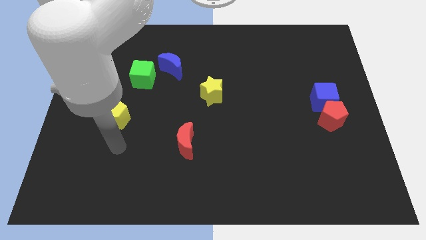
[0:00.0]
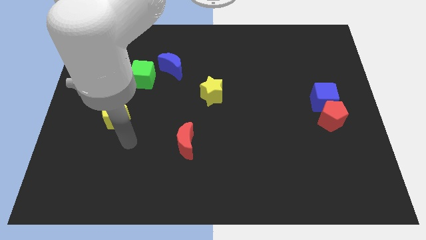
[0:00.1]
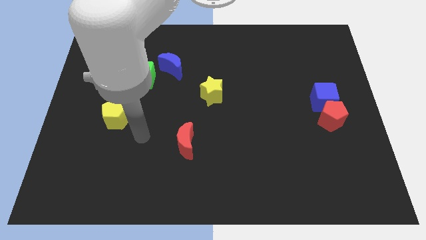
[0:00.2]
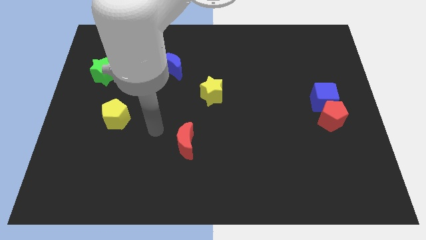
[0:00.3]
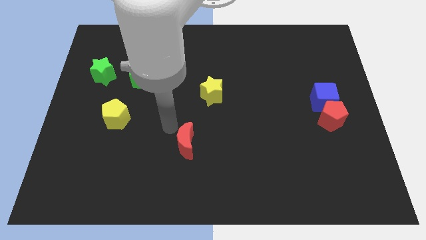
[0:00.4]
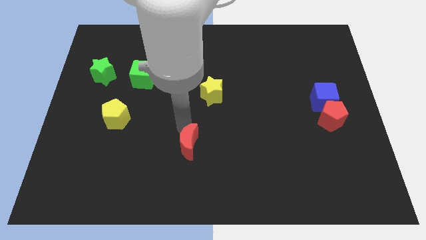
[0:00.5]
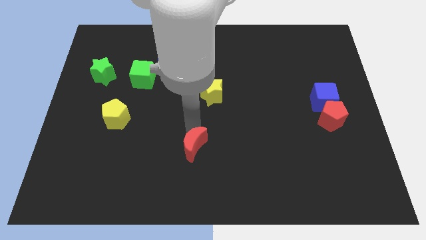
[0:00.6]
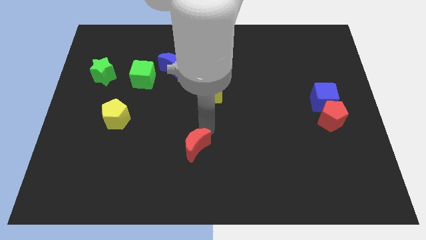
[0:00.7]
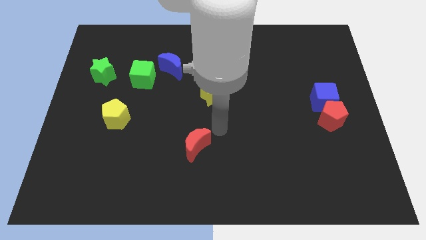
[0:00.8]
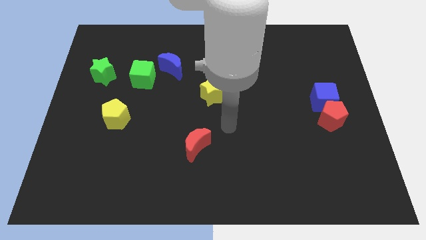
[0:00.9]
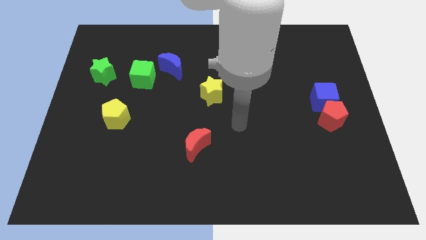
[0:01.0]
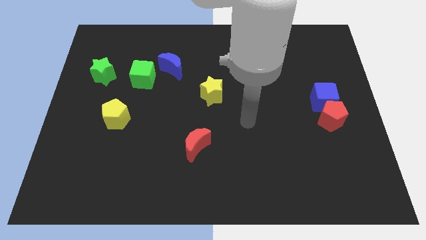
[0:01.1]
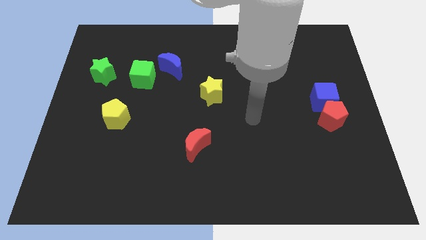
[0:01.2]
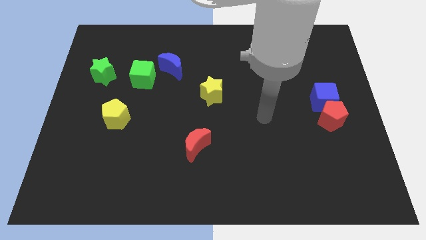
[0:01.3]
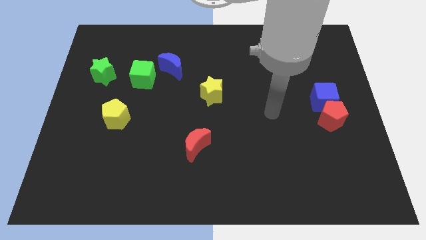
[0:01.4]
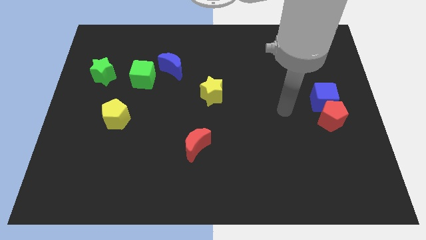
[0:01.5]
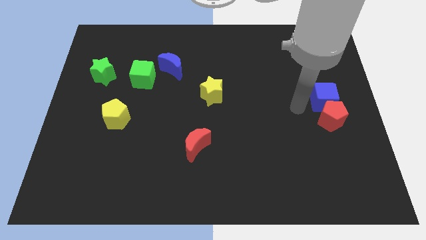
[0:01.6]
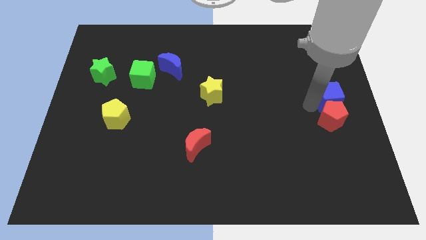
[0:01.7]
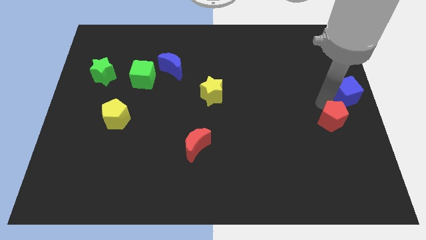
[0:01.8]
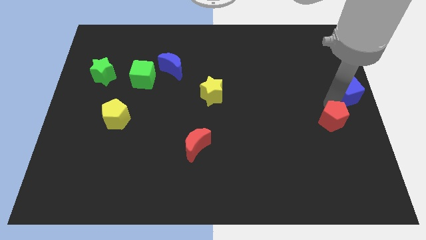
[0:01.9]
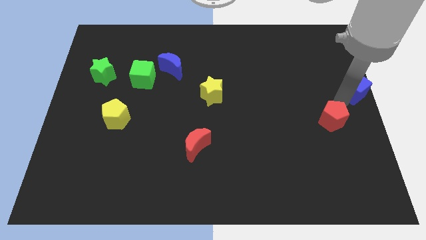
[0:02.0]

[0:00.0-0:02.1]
separate the red pentagon from the blue cube

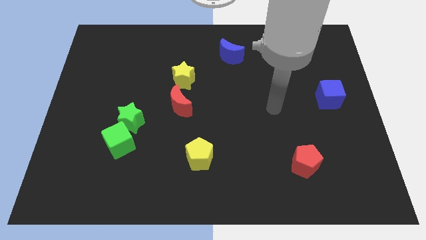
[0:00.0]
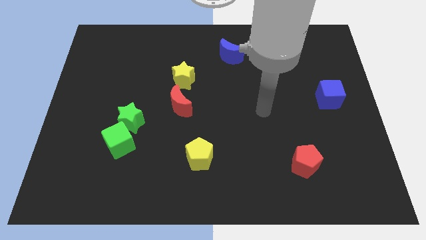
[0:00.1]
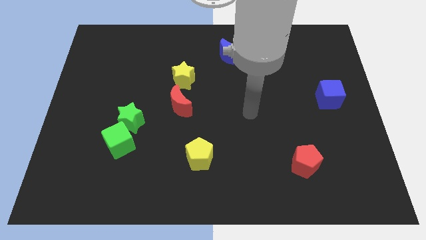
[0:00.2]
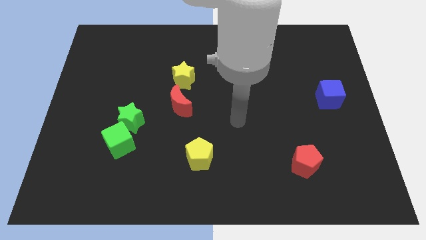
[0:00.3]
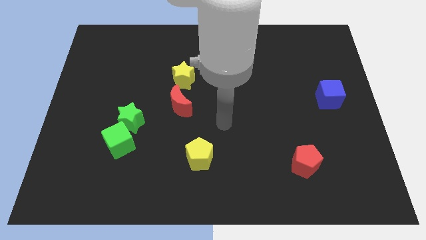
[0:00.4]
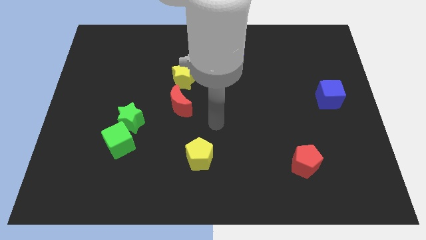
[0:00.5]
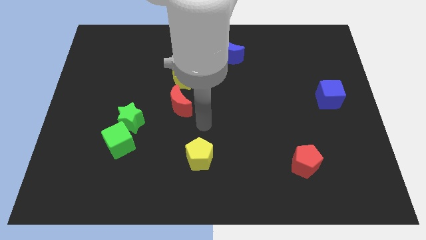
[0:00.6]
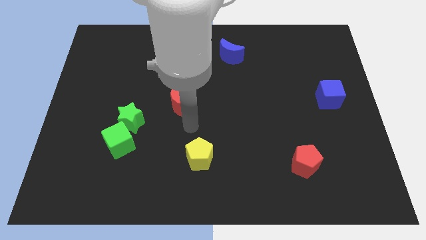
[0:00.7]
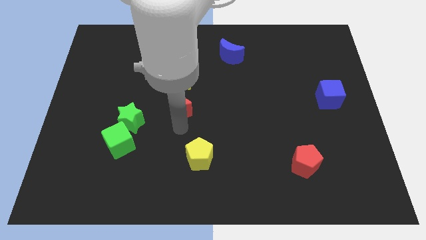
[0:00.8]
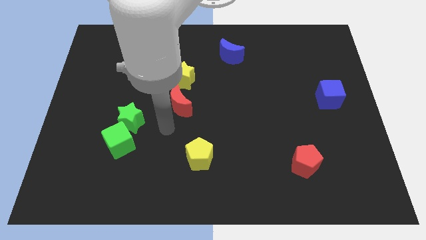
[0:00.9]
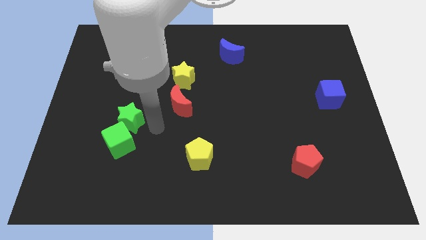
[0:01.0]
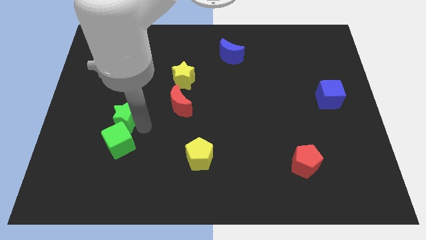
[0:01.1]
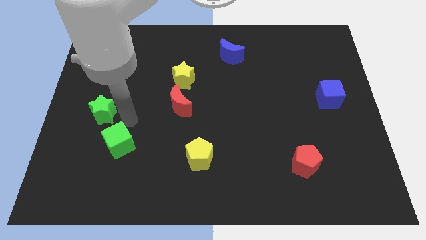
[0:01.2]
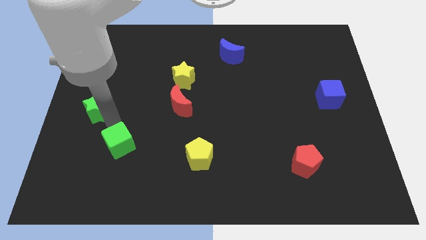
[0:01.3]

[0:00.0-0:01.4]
pull the green cube apart from the green star

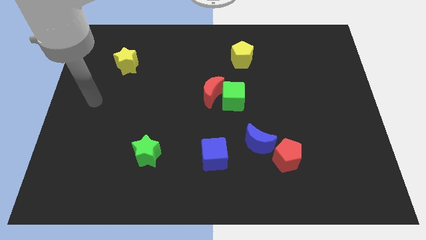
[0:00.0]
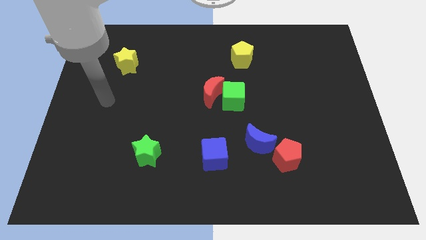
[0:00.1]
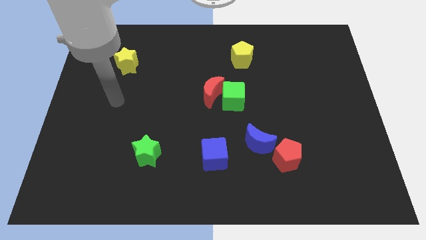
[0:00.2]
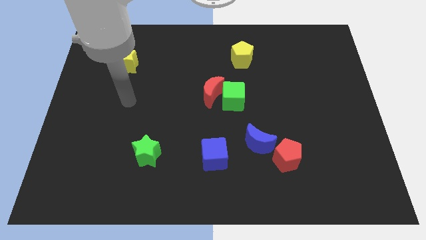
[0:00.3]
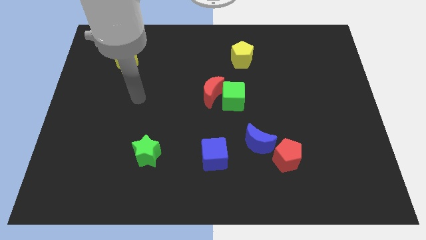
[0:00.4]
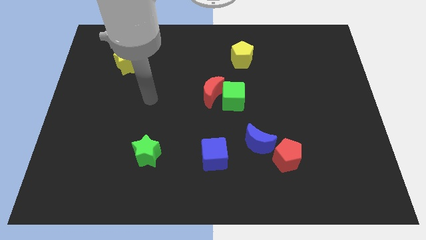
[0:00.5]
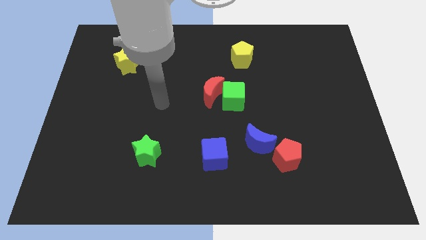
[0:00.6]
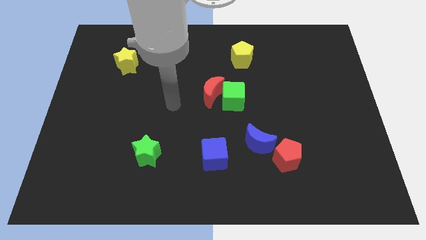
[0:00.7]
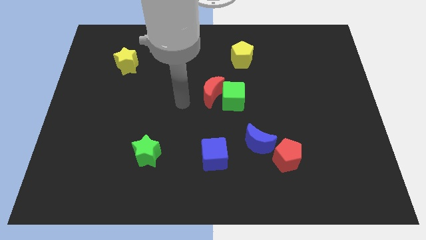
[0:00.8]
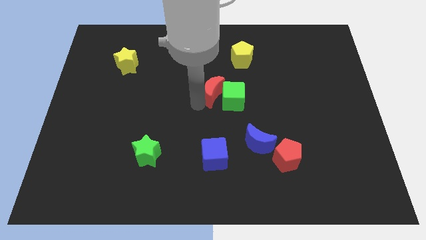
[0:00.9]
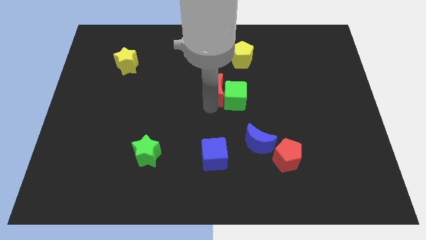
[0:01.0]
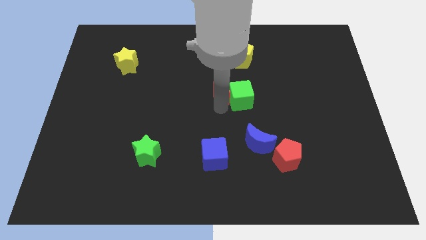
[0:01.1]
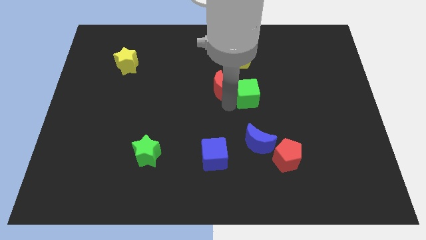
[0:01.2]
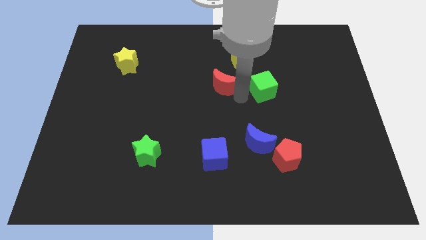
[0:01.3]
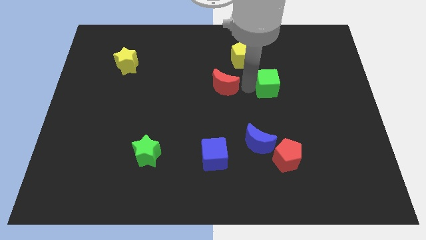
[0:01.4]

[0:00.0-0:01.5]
separate the red moon from the green cube

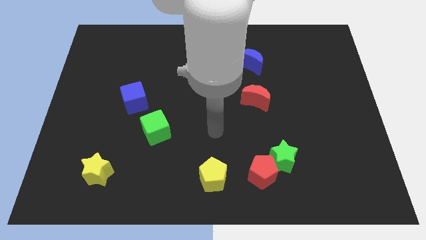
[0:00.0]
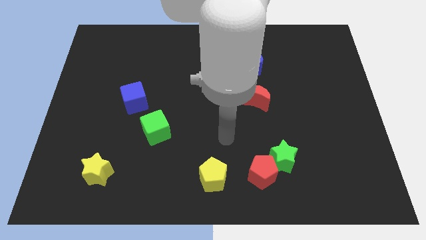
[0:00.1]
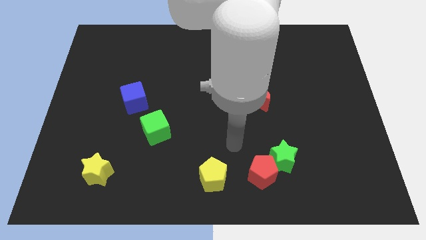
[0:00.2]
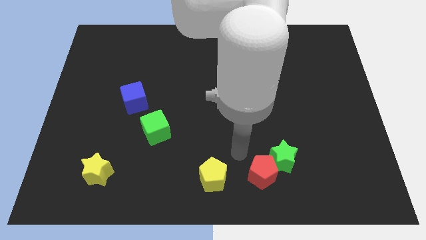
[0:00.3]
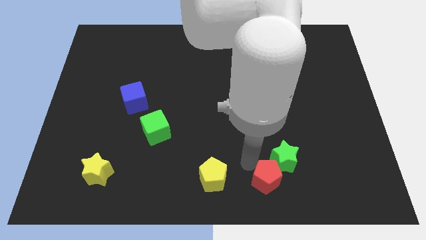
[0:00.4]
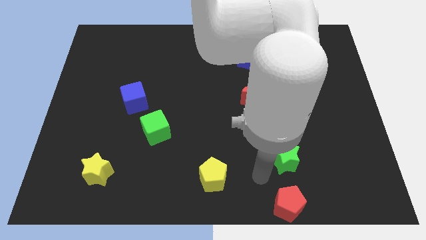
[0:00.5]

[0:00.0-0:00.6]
separate the green star from the red pentagon

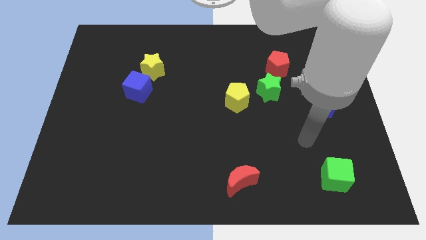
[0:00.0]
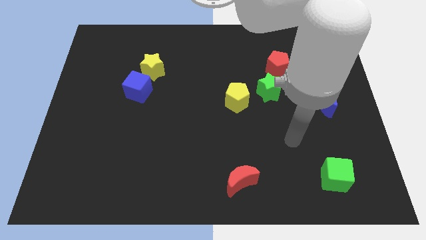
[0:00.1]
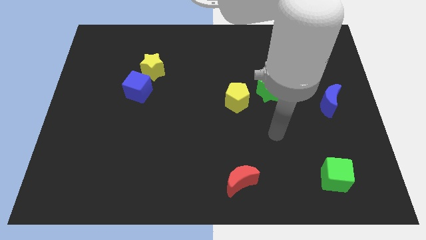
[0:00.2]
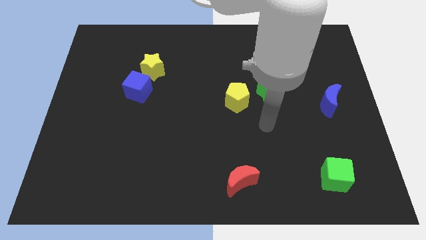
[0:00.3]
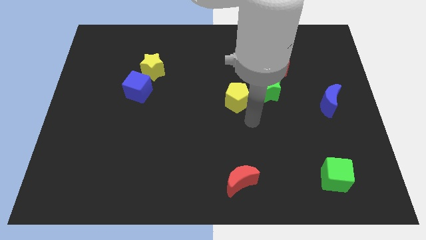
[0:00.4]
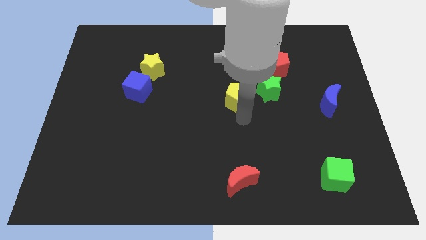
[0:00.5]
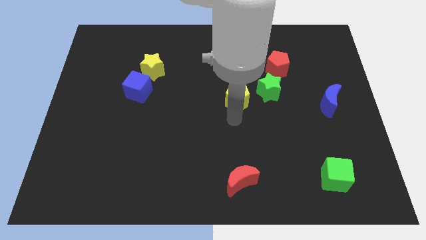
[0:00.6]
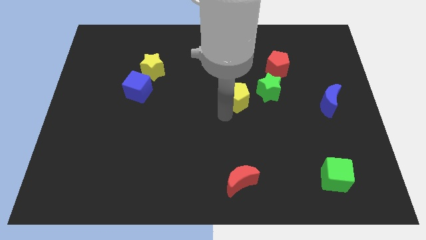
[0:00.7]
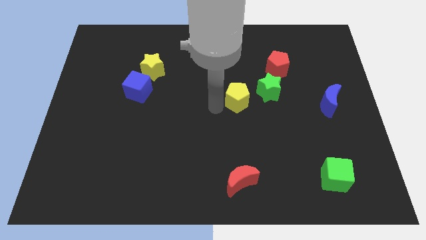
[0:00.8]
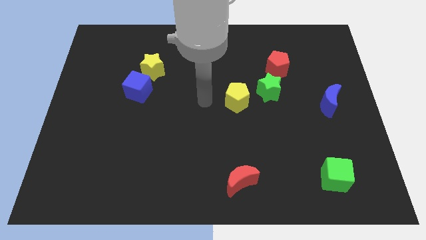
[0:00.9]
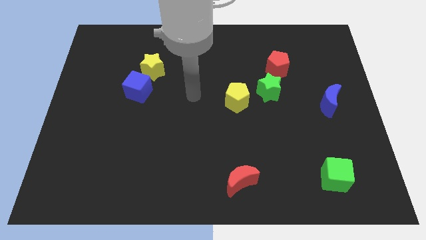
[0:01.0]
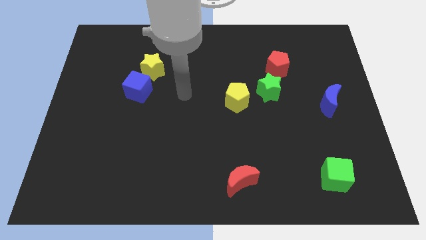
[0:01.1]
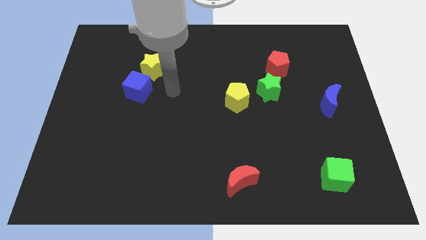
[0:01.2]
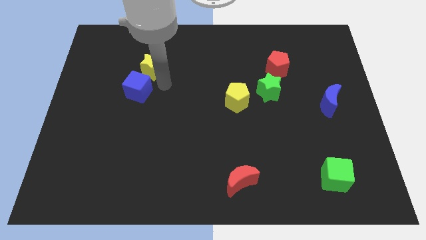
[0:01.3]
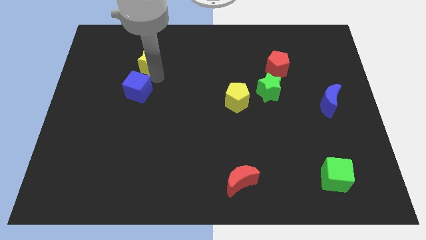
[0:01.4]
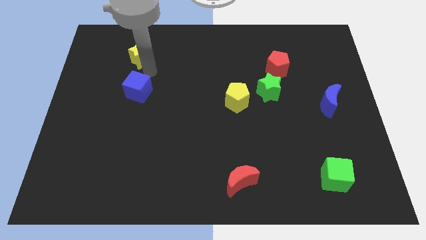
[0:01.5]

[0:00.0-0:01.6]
separate the blue cube from the yellow star

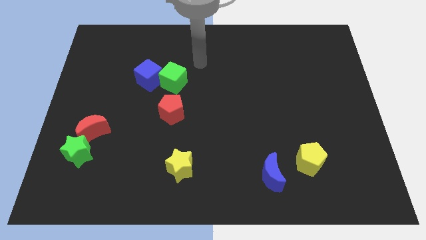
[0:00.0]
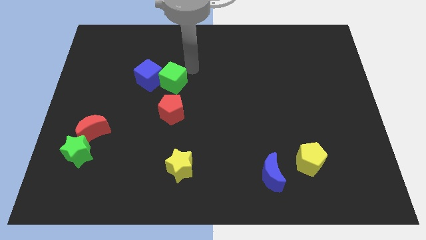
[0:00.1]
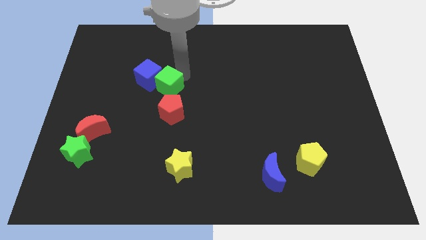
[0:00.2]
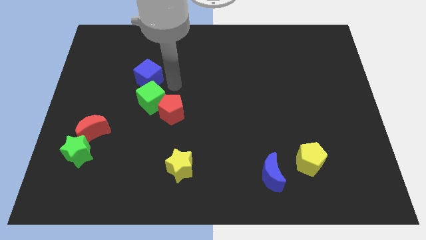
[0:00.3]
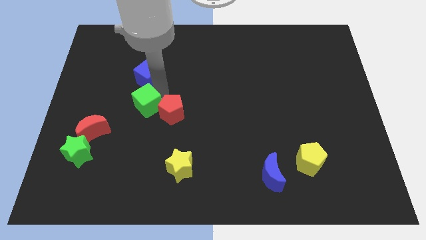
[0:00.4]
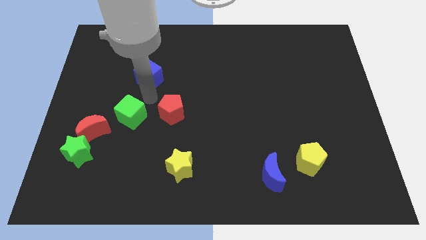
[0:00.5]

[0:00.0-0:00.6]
separate the blue cube from the green cube

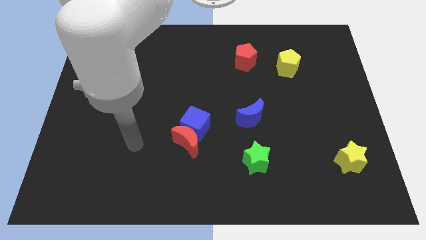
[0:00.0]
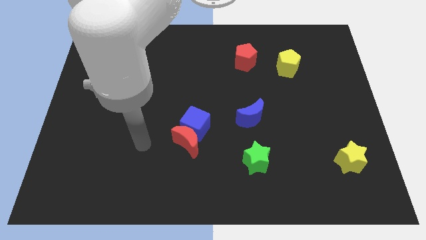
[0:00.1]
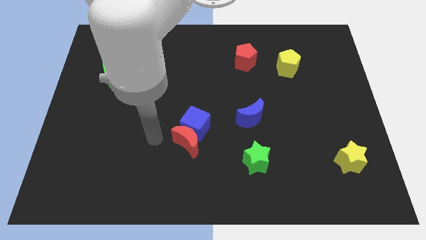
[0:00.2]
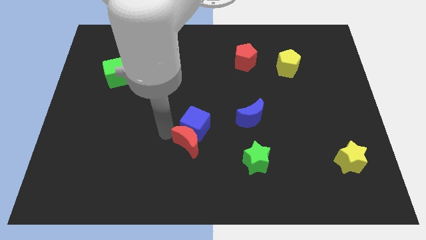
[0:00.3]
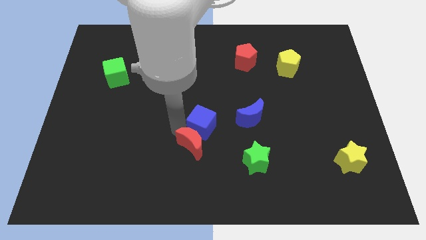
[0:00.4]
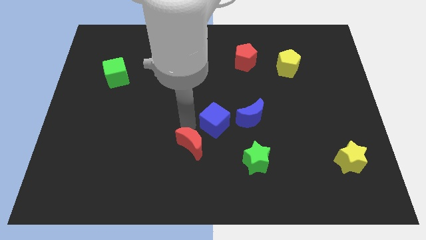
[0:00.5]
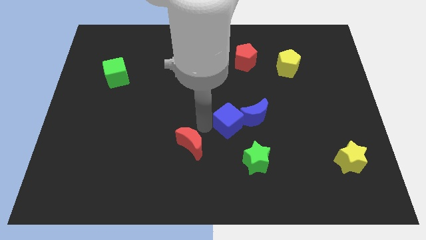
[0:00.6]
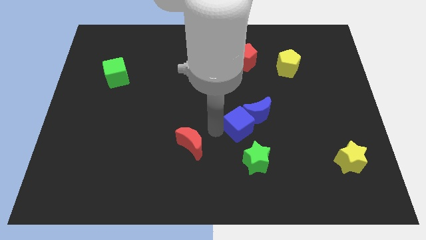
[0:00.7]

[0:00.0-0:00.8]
pull the red moon apart from the blue cube

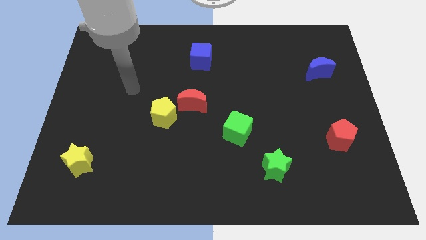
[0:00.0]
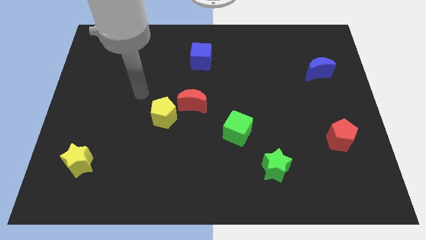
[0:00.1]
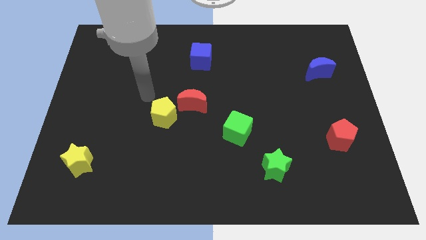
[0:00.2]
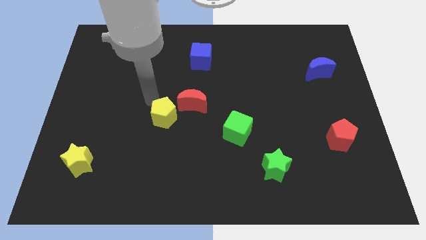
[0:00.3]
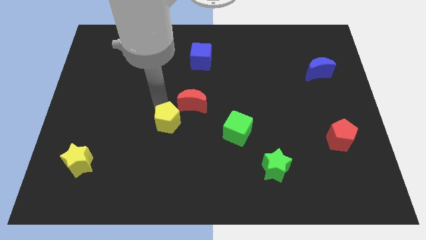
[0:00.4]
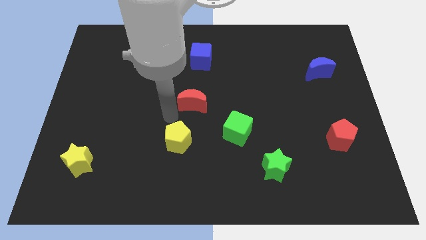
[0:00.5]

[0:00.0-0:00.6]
pull the red moon apart from the yellow pentagon
